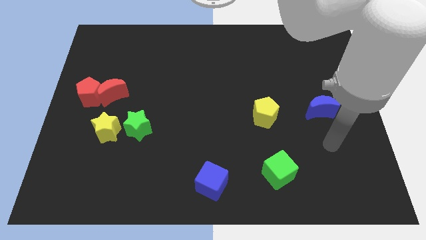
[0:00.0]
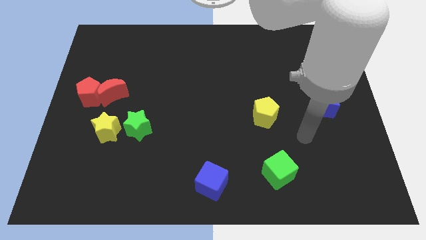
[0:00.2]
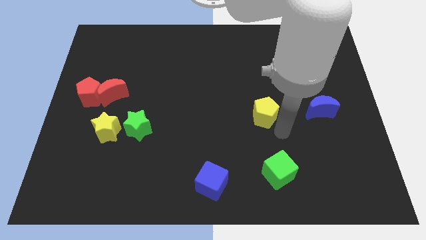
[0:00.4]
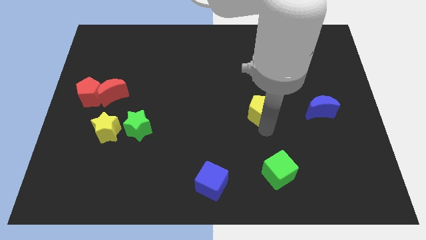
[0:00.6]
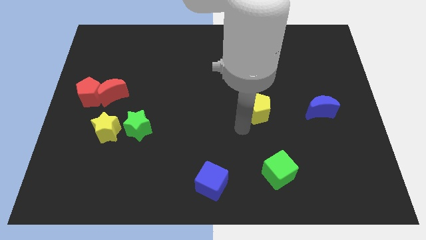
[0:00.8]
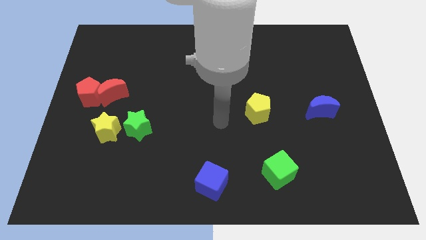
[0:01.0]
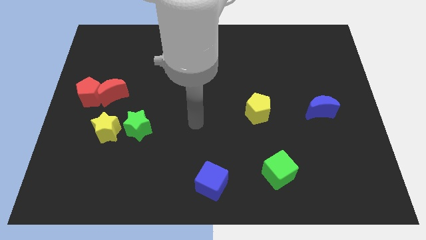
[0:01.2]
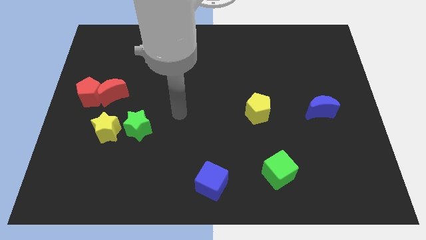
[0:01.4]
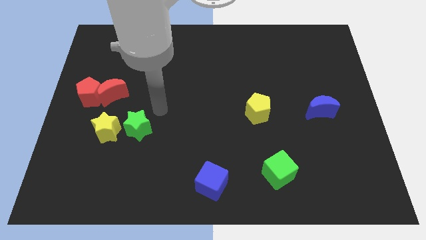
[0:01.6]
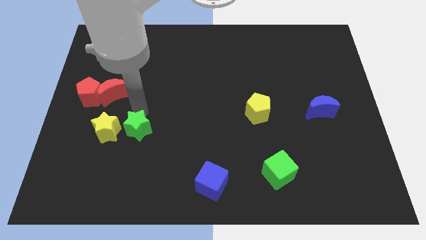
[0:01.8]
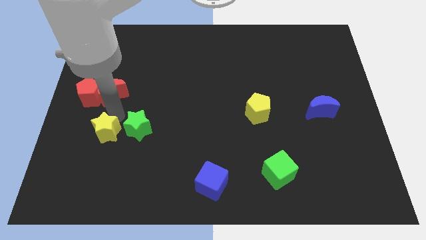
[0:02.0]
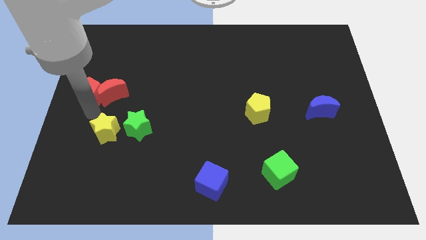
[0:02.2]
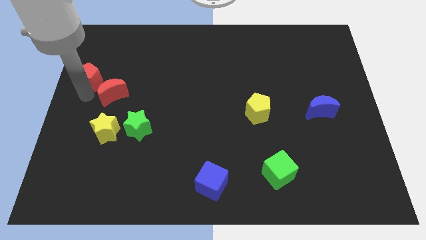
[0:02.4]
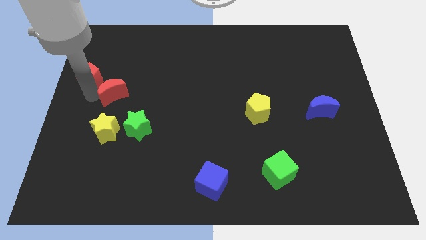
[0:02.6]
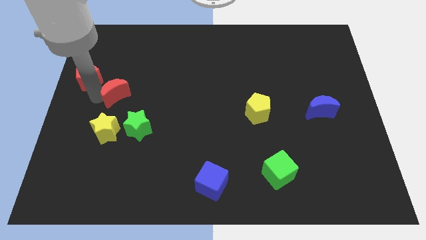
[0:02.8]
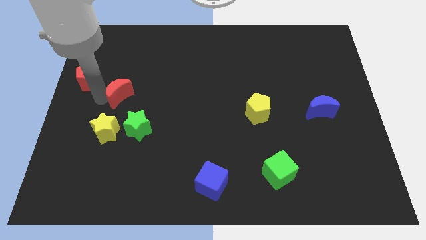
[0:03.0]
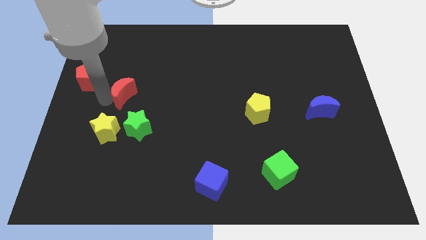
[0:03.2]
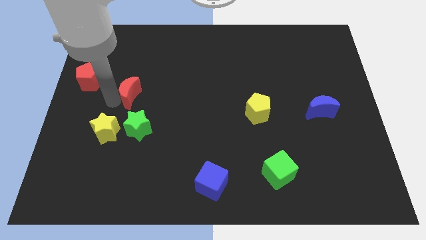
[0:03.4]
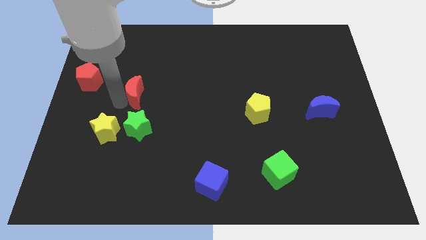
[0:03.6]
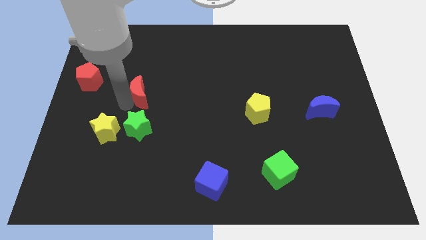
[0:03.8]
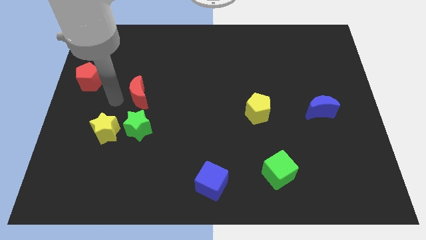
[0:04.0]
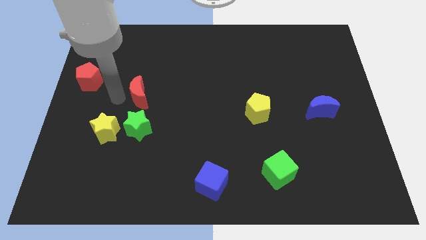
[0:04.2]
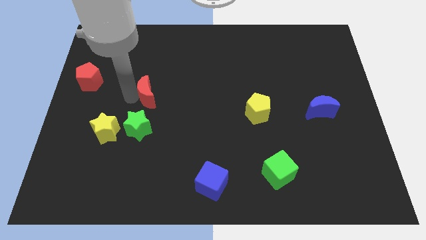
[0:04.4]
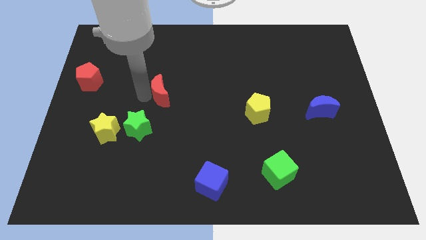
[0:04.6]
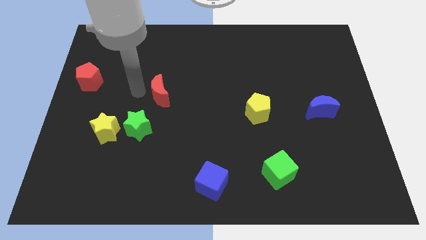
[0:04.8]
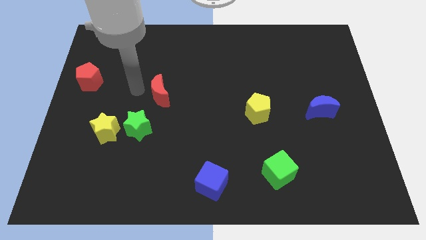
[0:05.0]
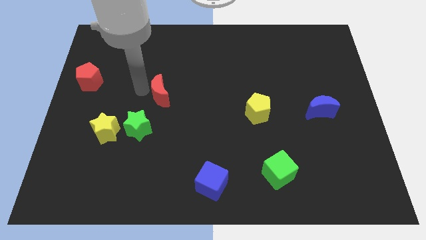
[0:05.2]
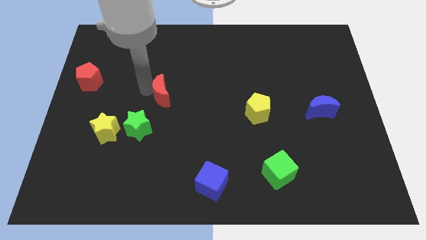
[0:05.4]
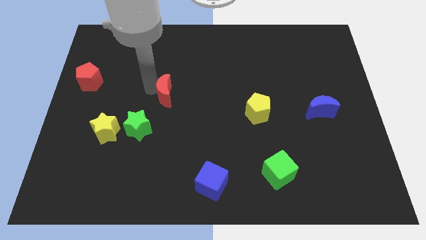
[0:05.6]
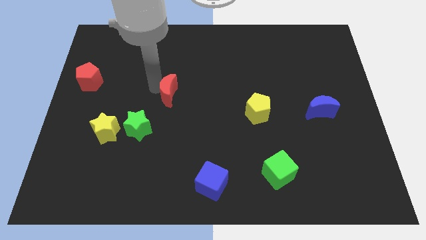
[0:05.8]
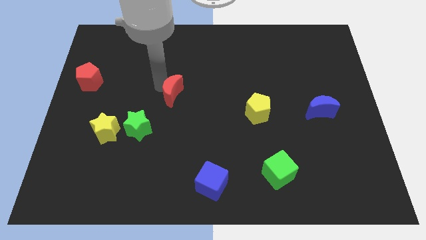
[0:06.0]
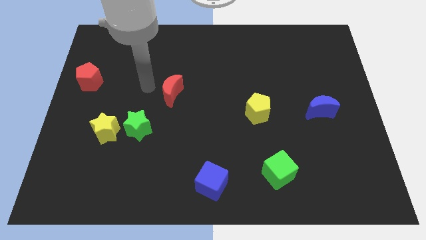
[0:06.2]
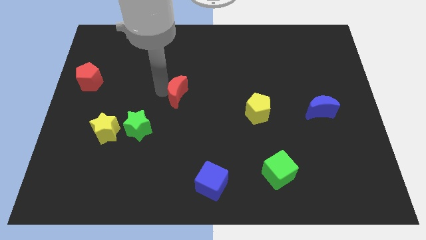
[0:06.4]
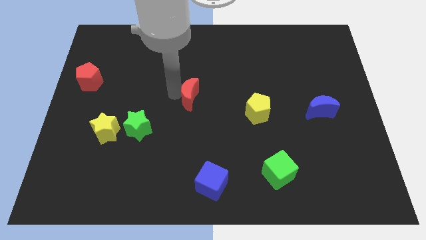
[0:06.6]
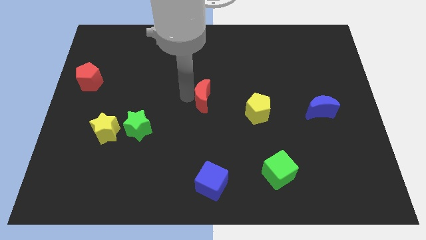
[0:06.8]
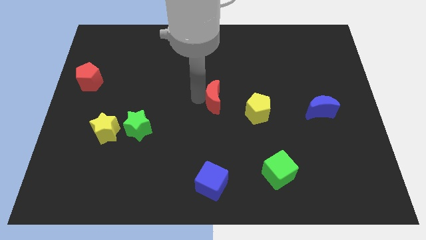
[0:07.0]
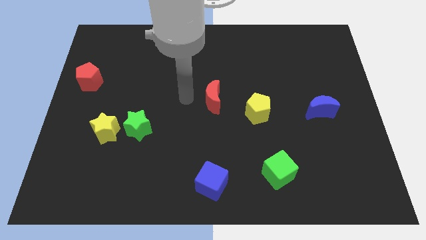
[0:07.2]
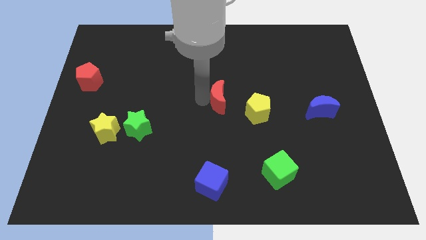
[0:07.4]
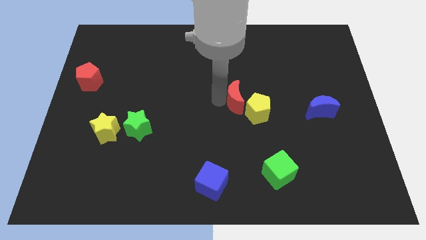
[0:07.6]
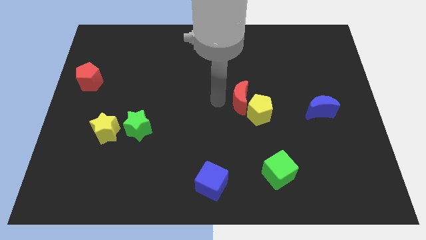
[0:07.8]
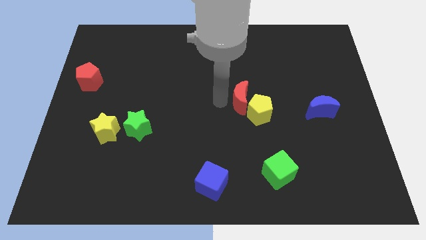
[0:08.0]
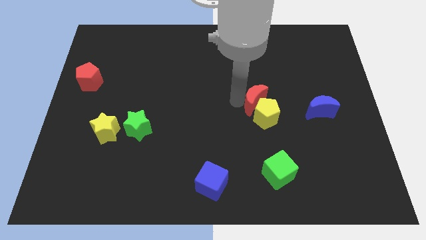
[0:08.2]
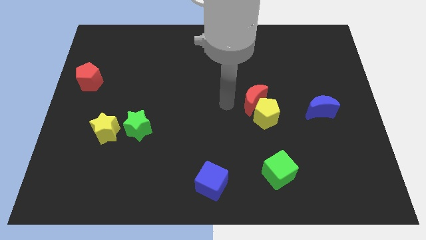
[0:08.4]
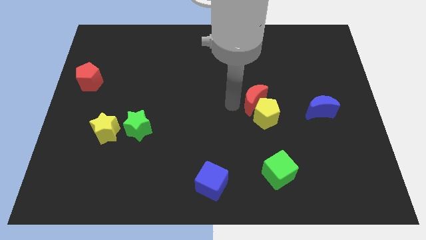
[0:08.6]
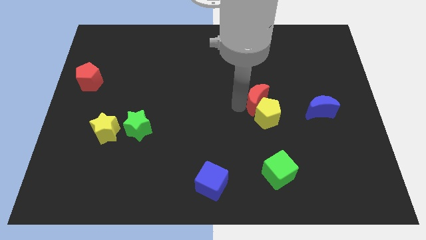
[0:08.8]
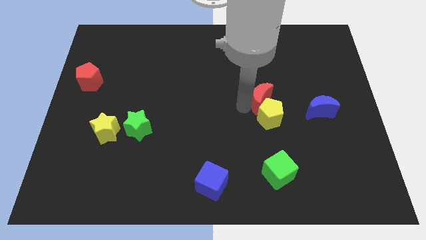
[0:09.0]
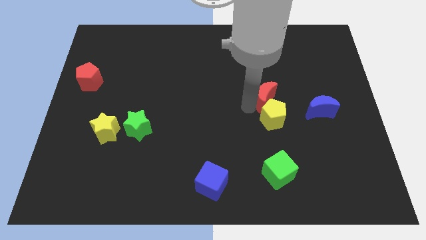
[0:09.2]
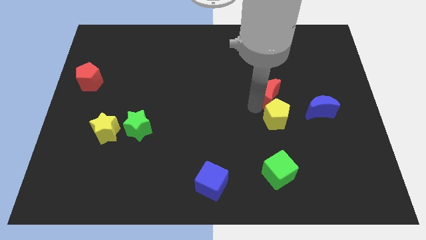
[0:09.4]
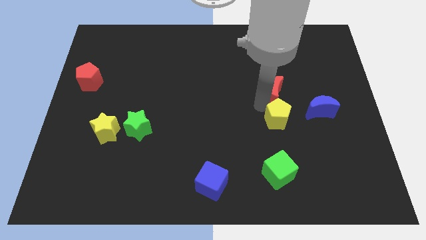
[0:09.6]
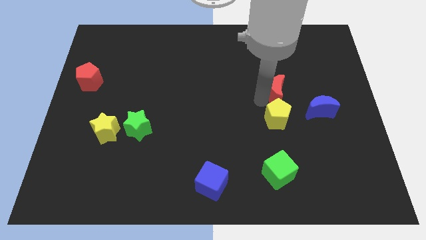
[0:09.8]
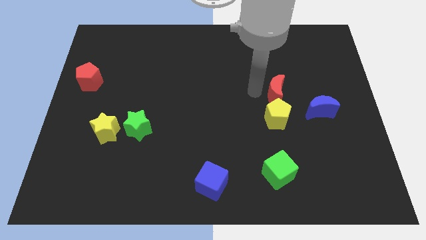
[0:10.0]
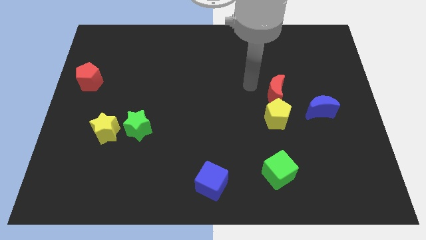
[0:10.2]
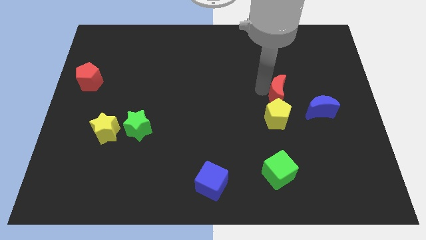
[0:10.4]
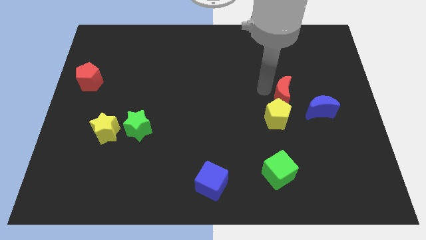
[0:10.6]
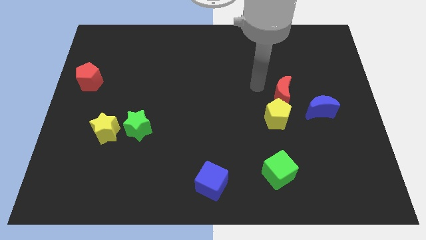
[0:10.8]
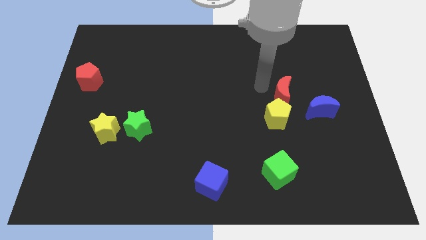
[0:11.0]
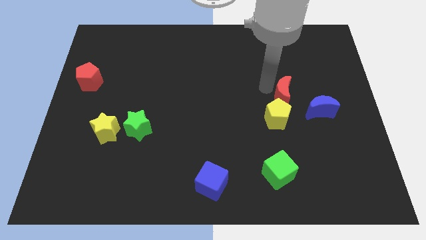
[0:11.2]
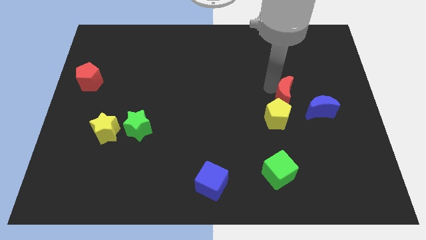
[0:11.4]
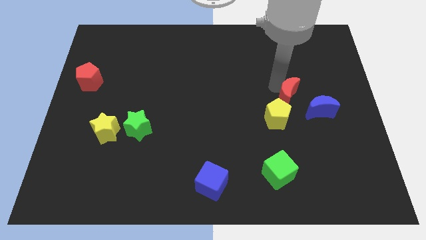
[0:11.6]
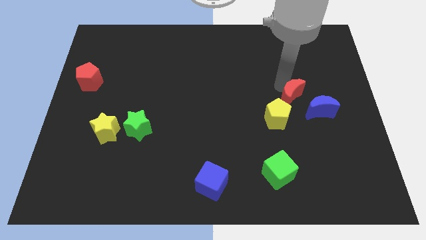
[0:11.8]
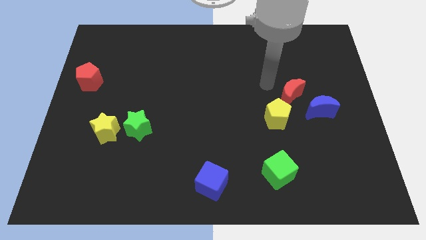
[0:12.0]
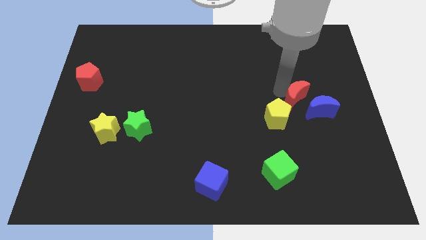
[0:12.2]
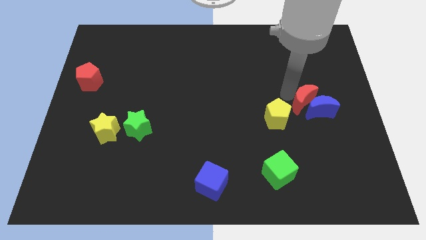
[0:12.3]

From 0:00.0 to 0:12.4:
move the red moon next to the blue moon
